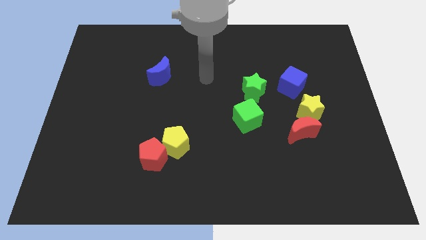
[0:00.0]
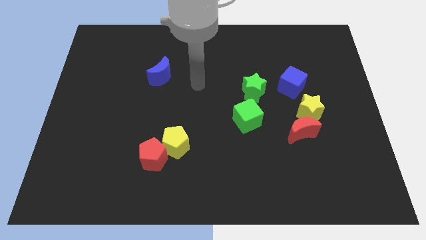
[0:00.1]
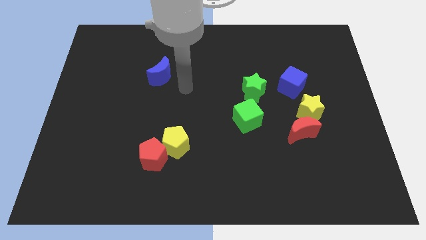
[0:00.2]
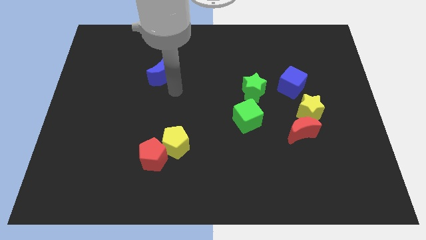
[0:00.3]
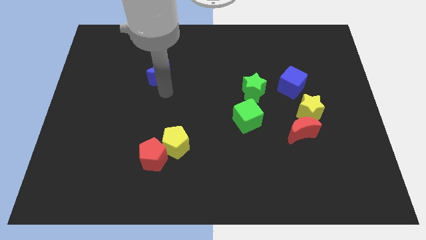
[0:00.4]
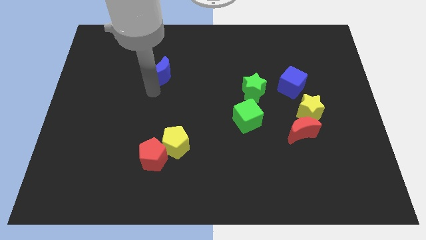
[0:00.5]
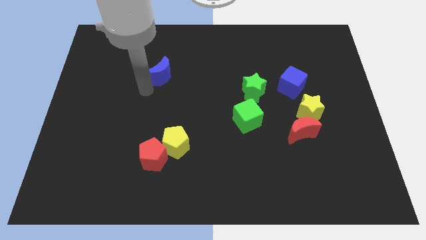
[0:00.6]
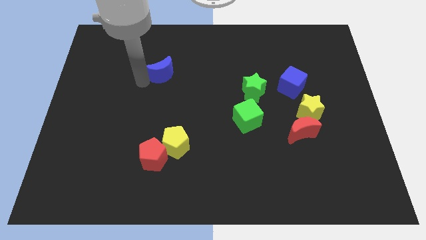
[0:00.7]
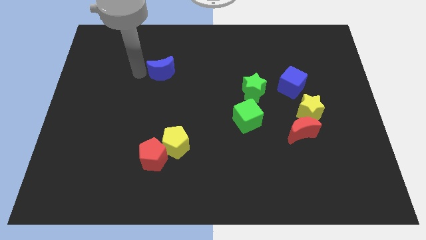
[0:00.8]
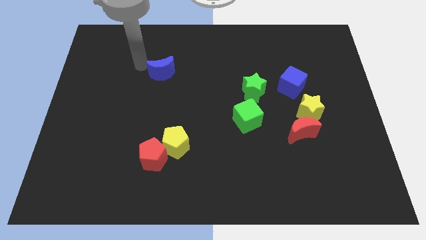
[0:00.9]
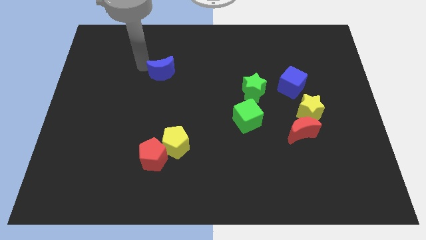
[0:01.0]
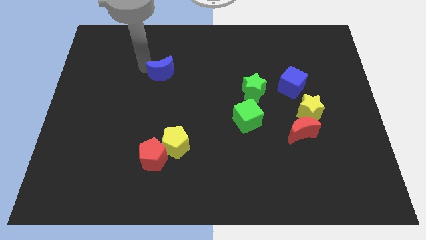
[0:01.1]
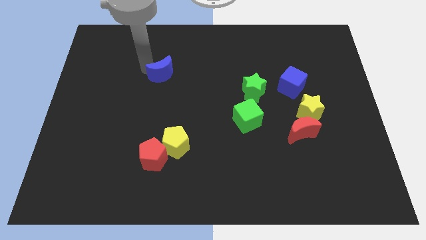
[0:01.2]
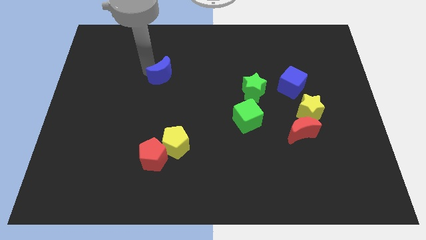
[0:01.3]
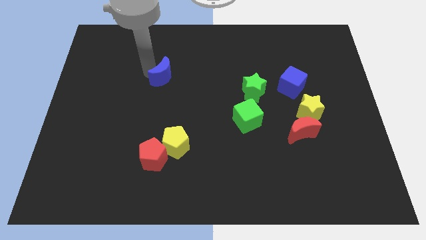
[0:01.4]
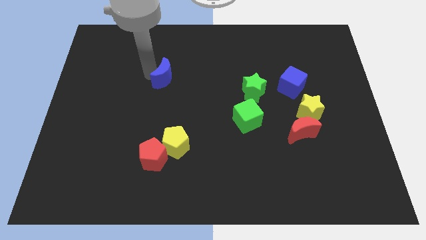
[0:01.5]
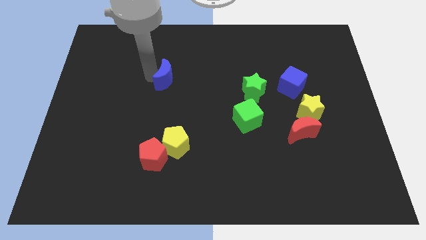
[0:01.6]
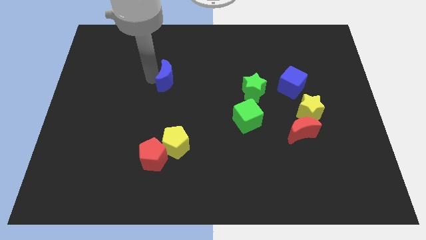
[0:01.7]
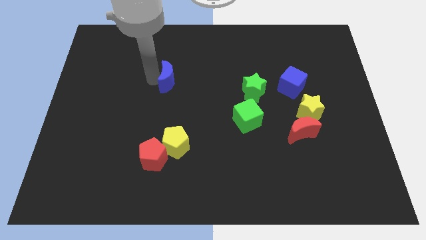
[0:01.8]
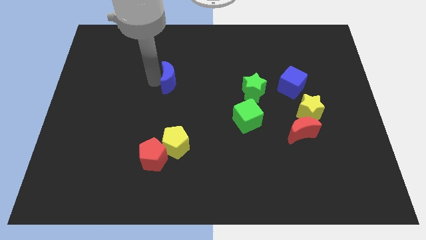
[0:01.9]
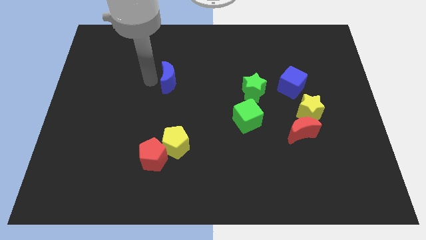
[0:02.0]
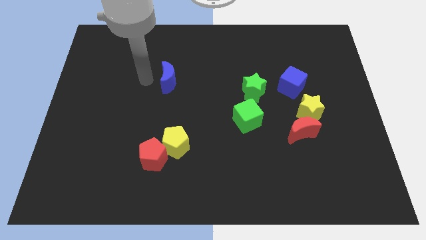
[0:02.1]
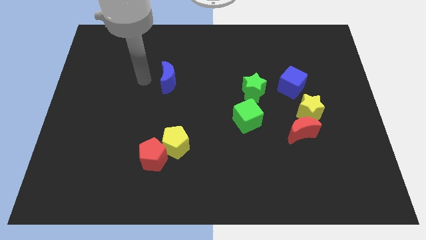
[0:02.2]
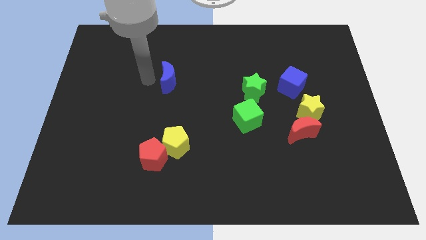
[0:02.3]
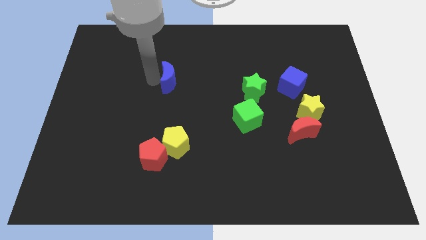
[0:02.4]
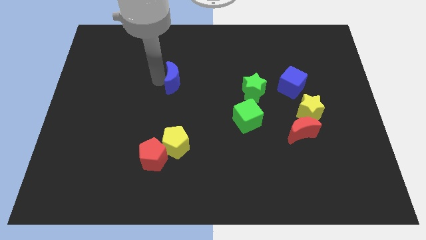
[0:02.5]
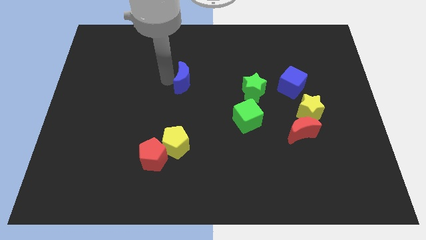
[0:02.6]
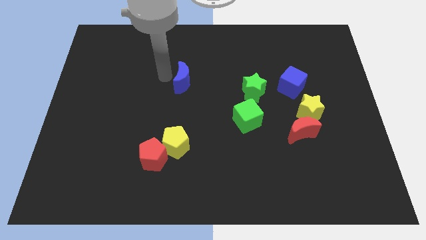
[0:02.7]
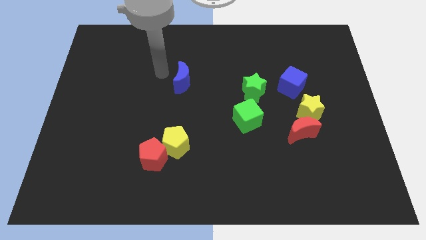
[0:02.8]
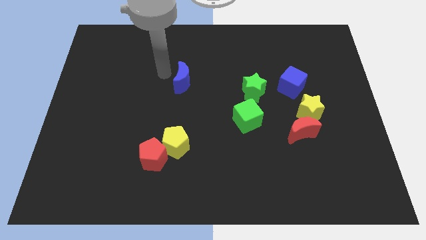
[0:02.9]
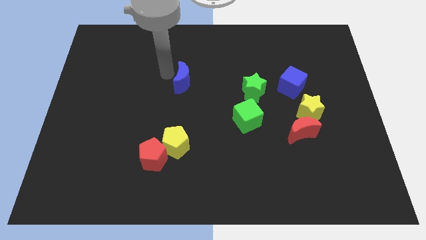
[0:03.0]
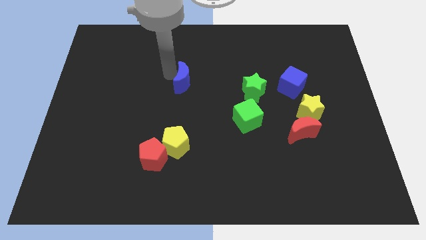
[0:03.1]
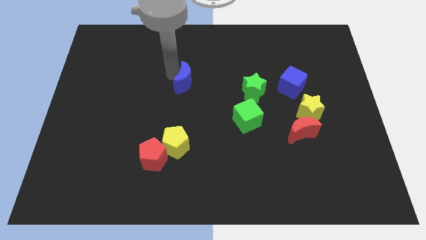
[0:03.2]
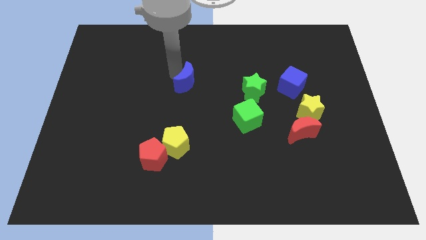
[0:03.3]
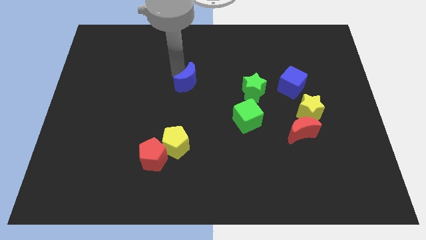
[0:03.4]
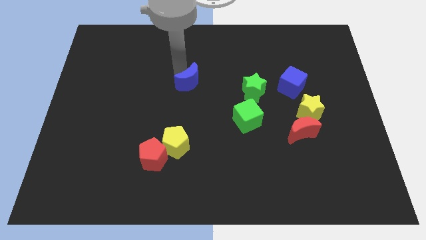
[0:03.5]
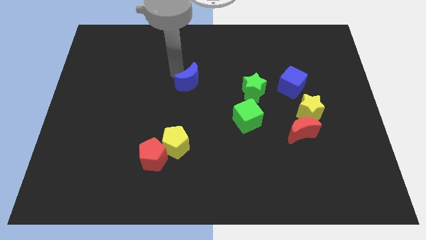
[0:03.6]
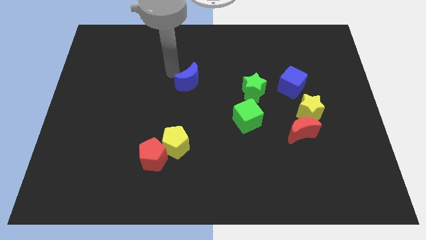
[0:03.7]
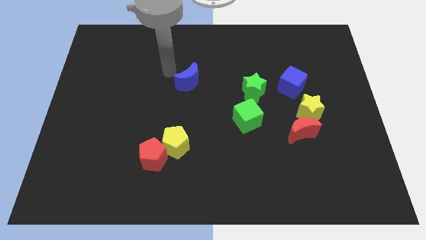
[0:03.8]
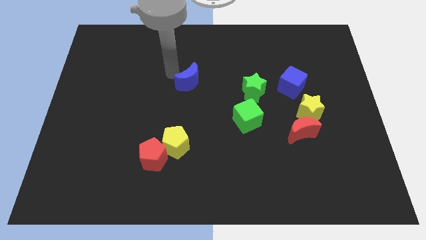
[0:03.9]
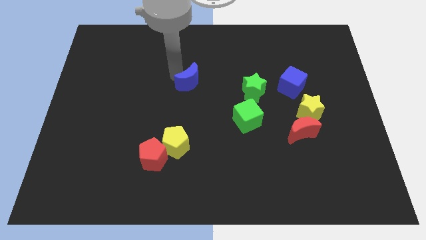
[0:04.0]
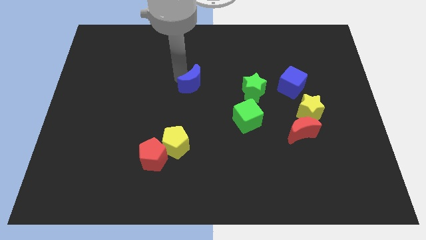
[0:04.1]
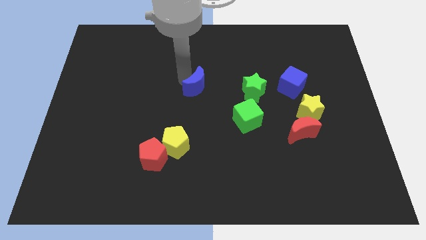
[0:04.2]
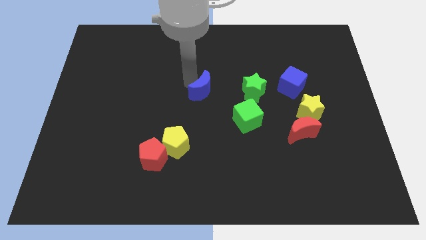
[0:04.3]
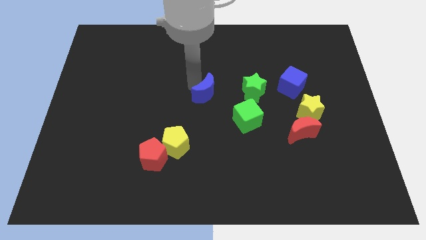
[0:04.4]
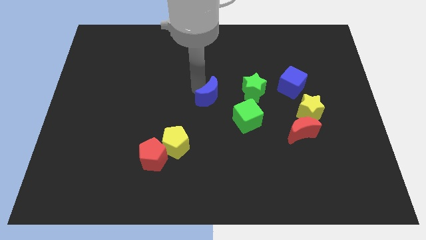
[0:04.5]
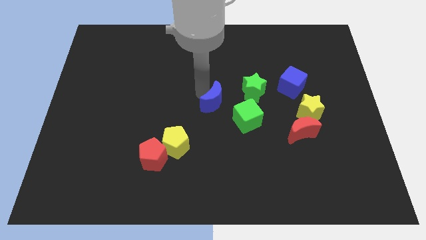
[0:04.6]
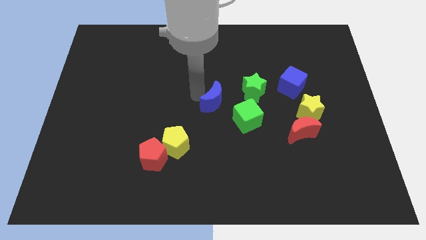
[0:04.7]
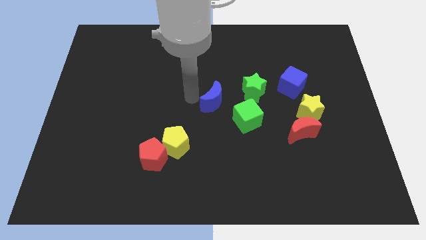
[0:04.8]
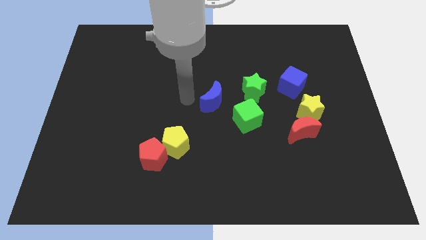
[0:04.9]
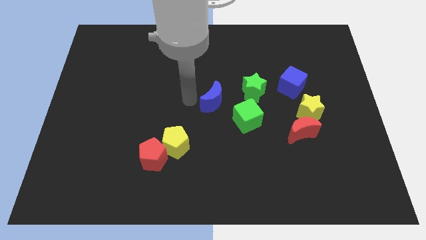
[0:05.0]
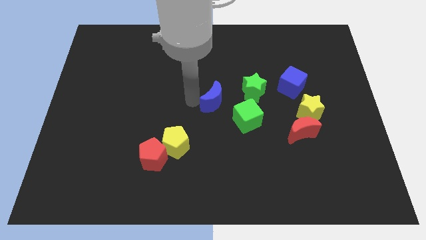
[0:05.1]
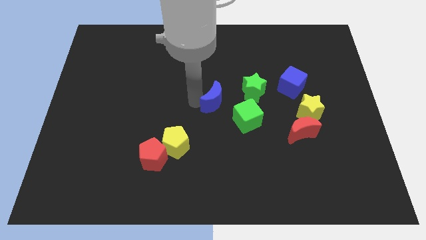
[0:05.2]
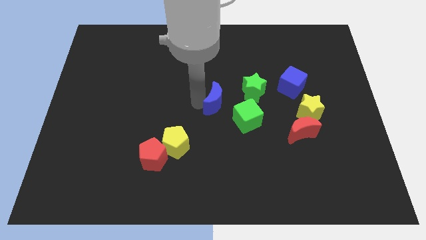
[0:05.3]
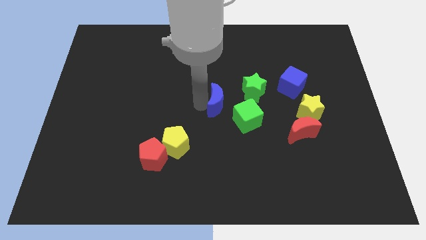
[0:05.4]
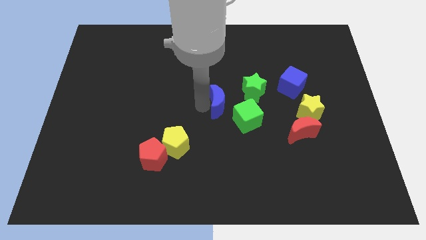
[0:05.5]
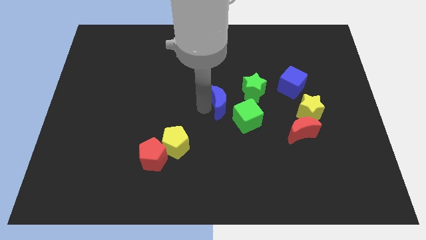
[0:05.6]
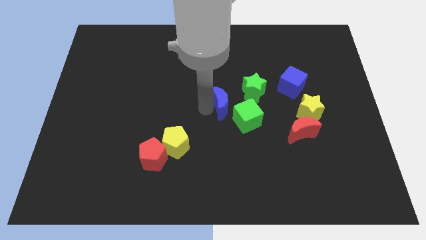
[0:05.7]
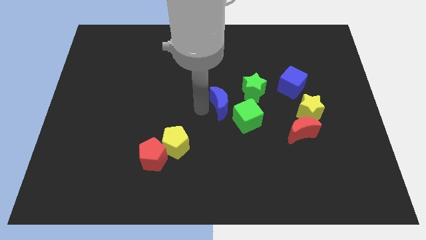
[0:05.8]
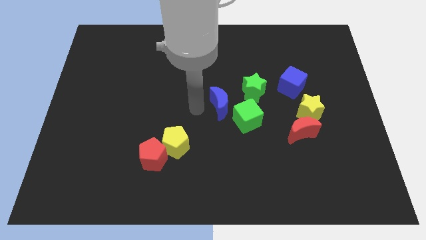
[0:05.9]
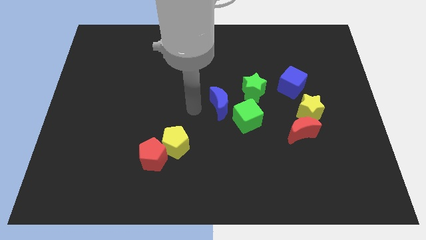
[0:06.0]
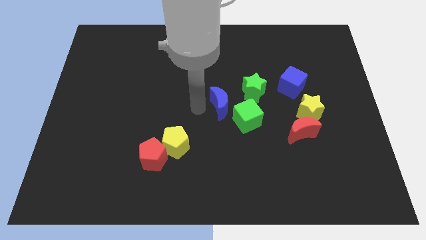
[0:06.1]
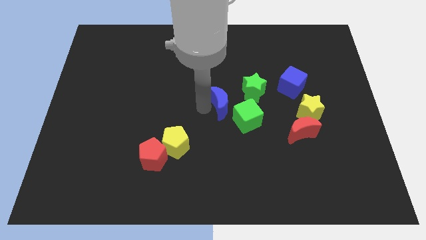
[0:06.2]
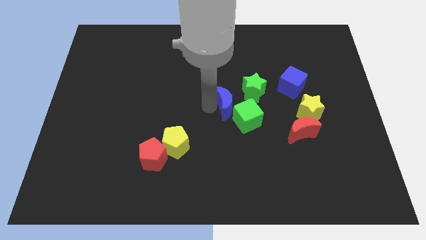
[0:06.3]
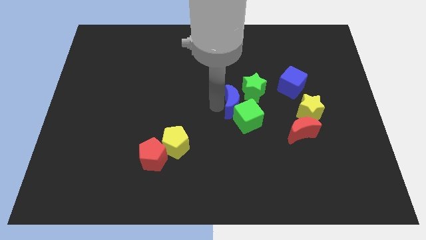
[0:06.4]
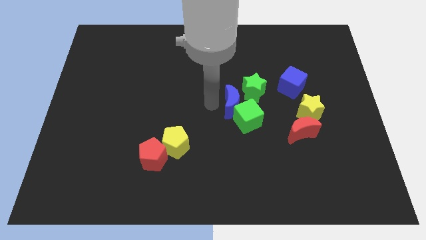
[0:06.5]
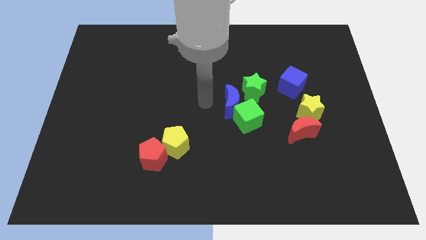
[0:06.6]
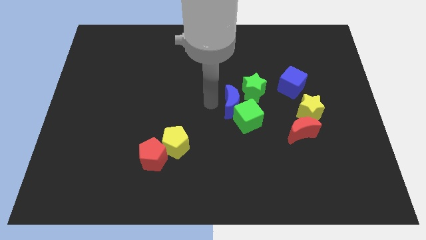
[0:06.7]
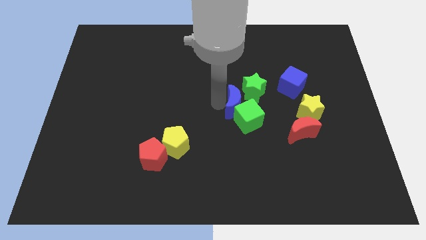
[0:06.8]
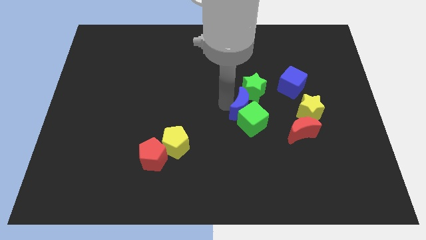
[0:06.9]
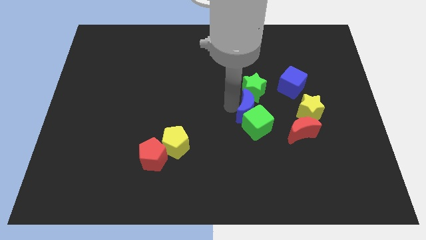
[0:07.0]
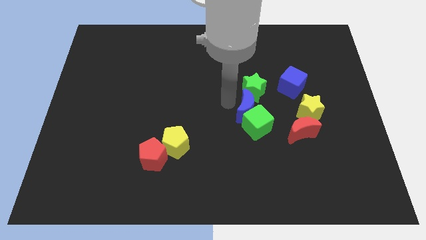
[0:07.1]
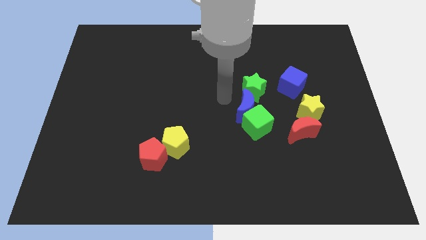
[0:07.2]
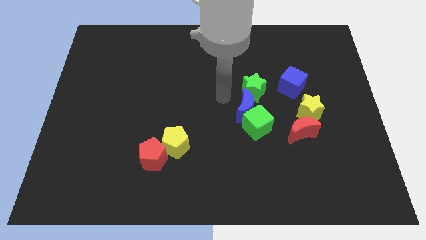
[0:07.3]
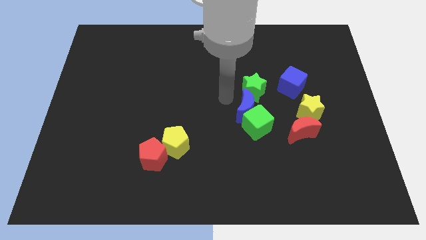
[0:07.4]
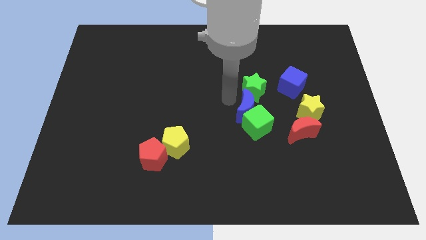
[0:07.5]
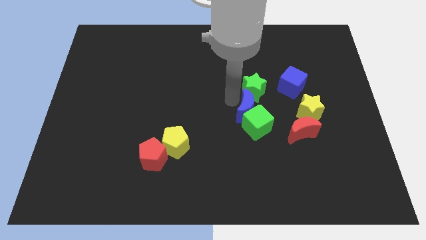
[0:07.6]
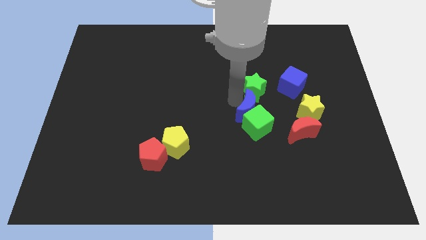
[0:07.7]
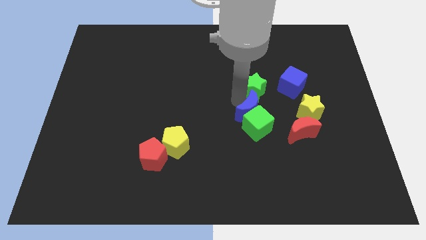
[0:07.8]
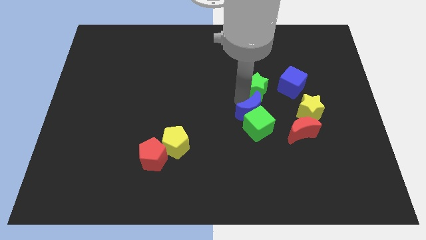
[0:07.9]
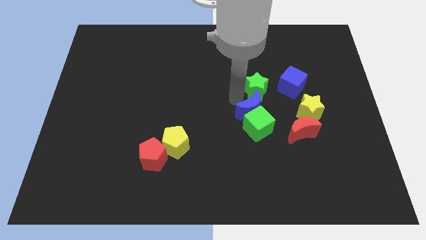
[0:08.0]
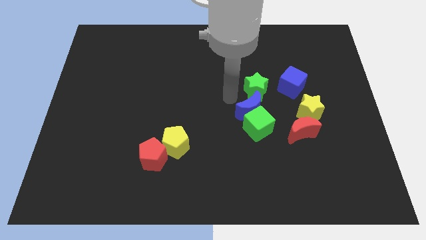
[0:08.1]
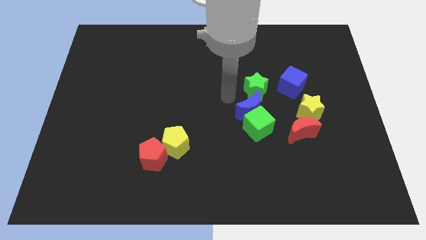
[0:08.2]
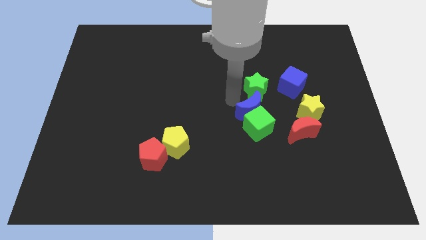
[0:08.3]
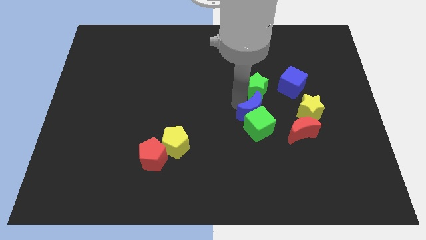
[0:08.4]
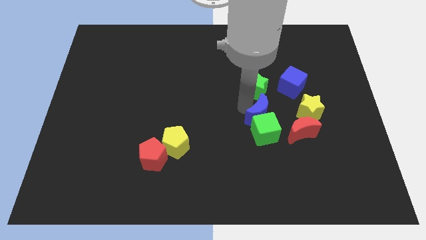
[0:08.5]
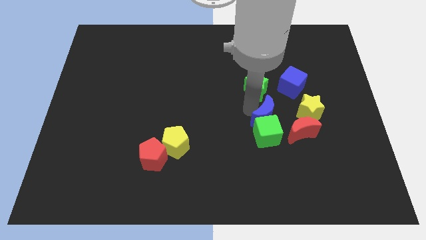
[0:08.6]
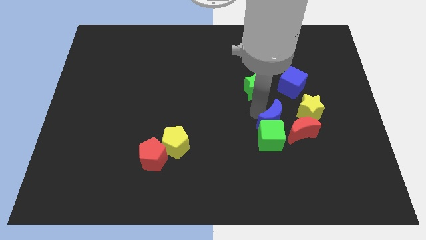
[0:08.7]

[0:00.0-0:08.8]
slide the blue moon to the bottom left side of the yellow star
